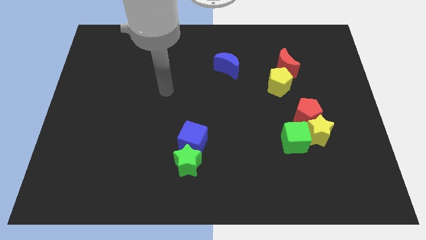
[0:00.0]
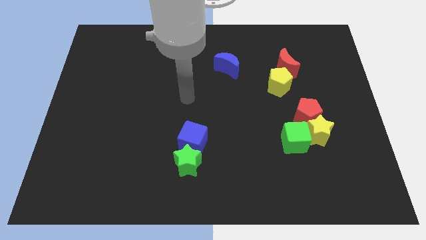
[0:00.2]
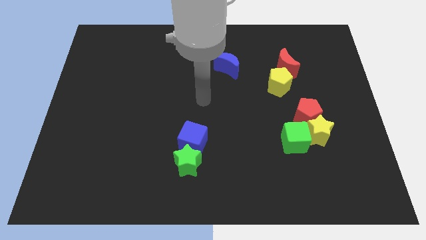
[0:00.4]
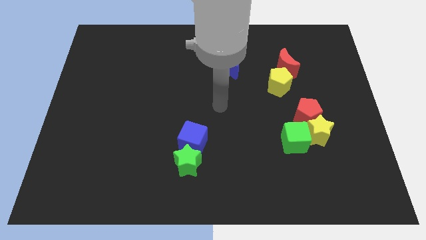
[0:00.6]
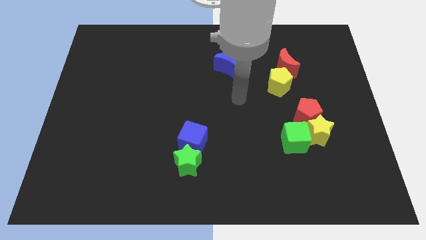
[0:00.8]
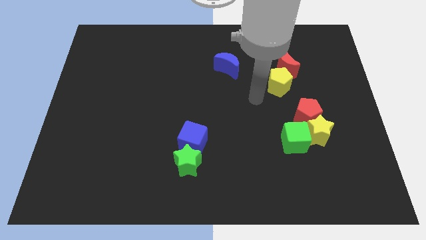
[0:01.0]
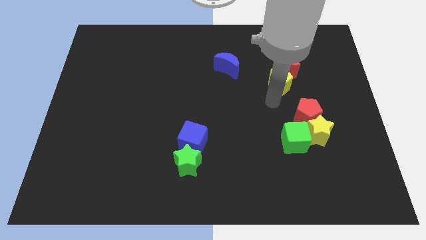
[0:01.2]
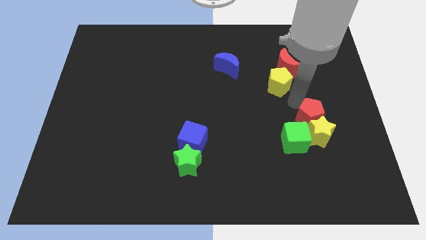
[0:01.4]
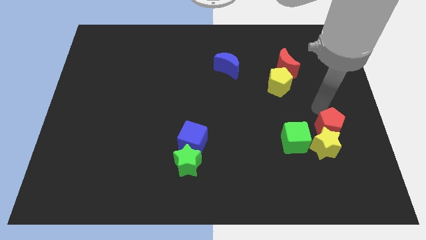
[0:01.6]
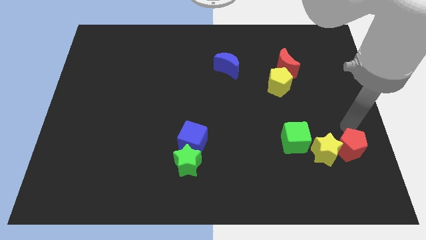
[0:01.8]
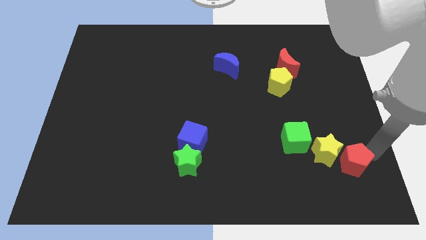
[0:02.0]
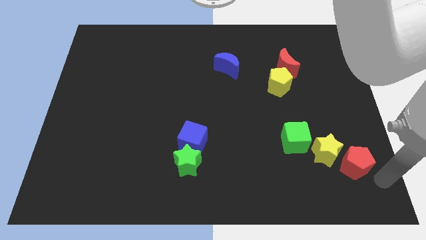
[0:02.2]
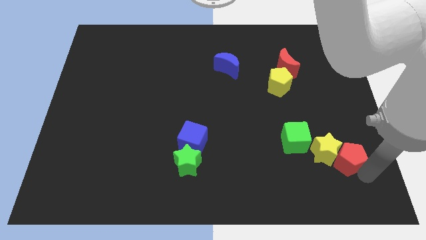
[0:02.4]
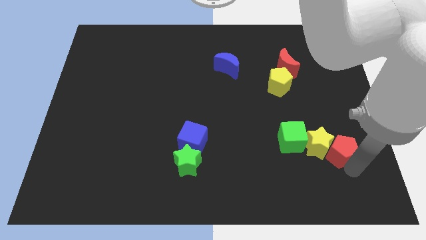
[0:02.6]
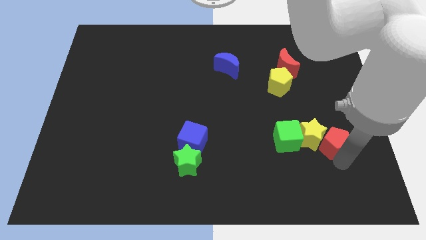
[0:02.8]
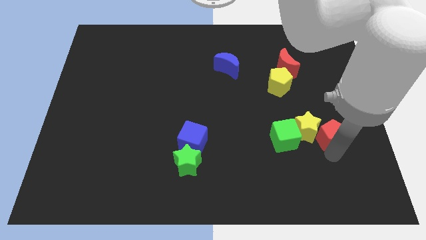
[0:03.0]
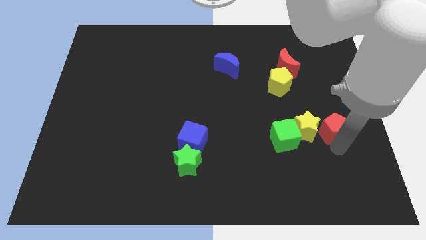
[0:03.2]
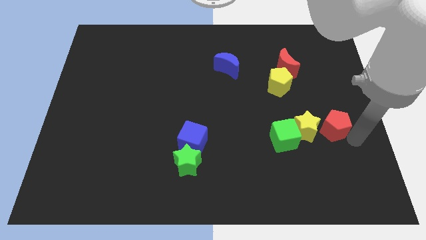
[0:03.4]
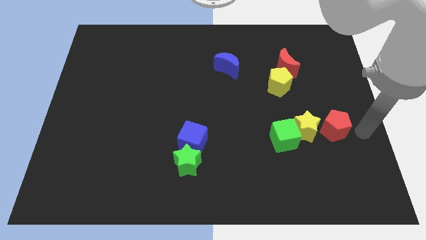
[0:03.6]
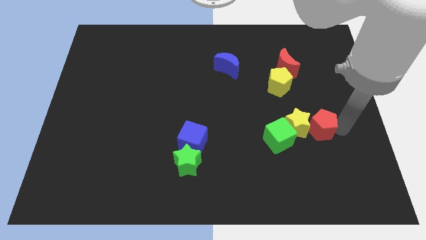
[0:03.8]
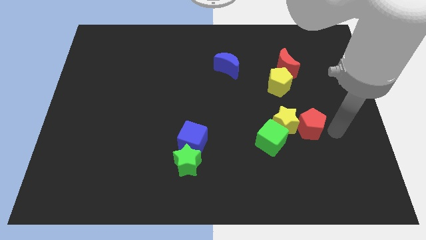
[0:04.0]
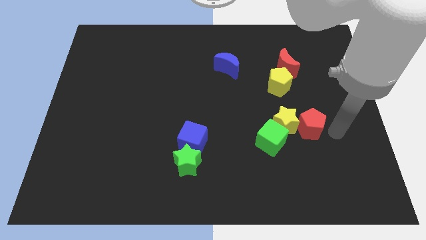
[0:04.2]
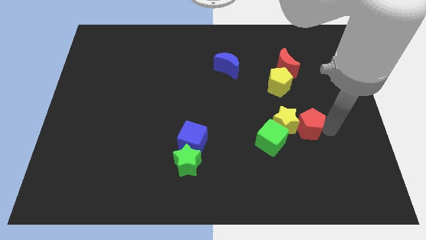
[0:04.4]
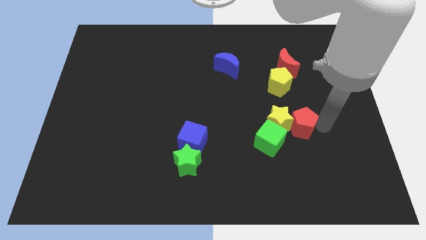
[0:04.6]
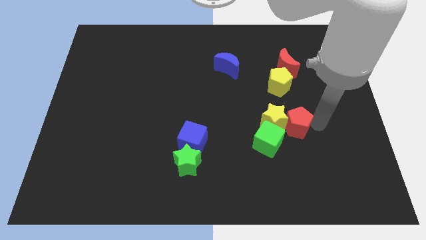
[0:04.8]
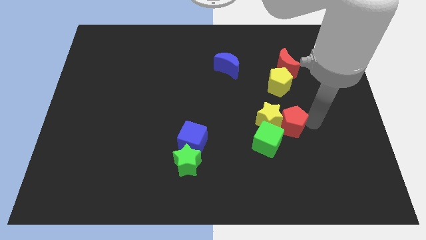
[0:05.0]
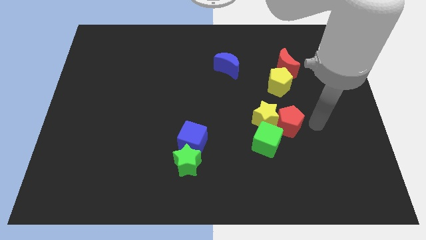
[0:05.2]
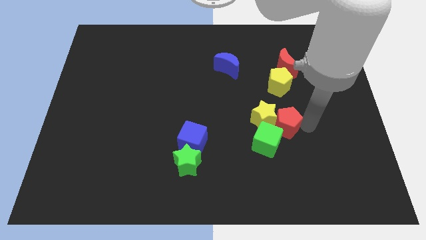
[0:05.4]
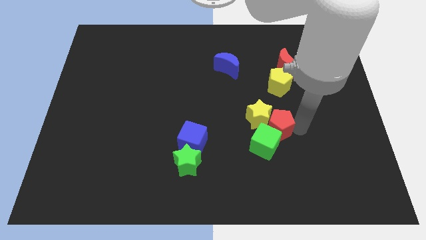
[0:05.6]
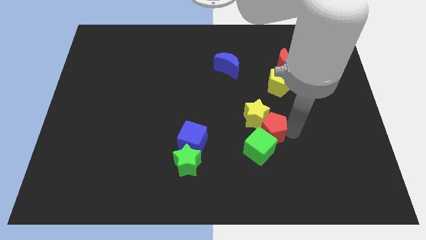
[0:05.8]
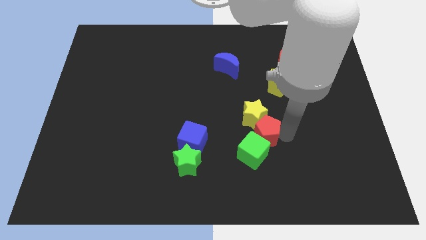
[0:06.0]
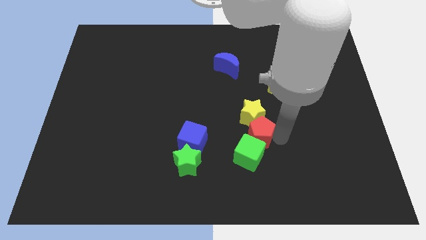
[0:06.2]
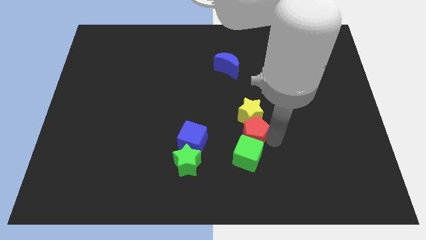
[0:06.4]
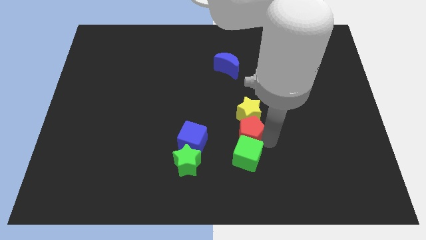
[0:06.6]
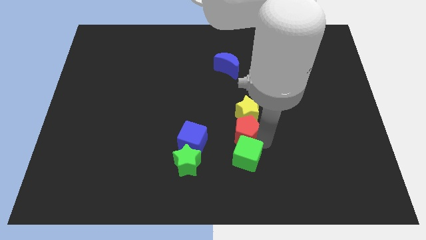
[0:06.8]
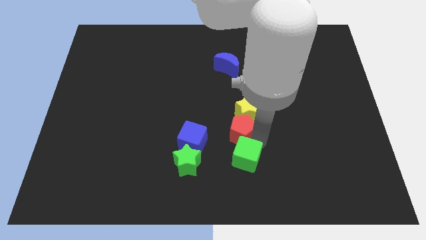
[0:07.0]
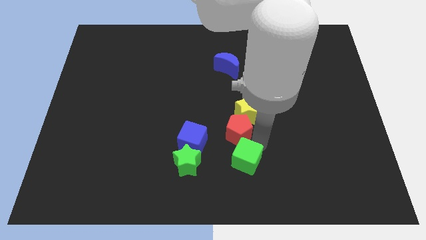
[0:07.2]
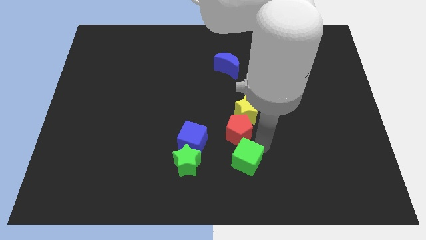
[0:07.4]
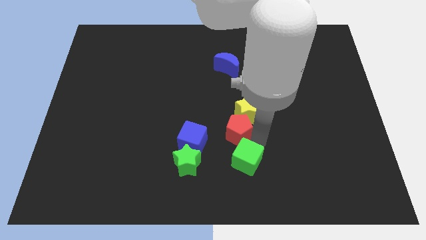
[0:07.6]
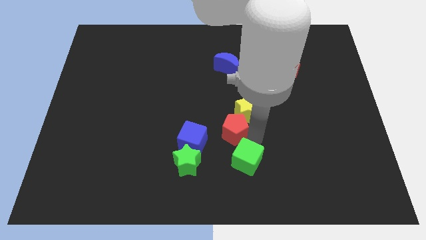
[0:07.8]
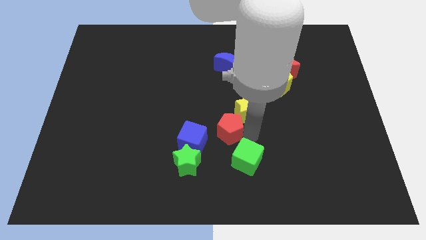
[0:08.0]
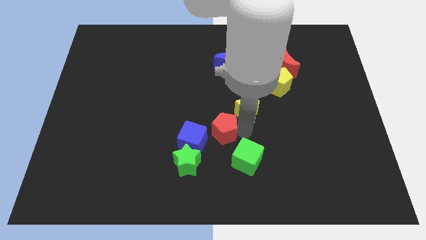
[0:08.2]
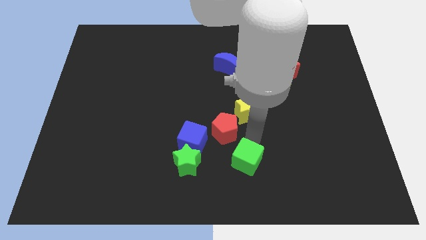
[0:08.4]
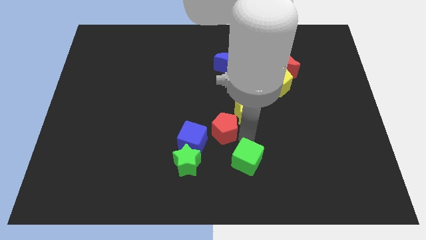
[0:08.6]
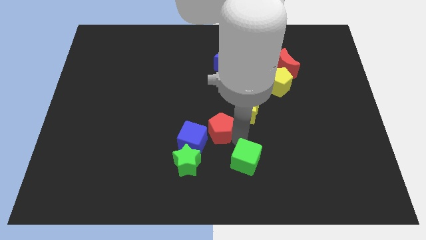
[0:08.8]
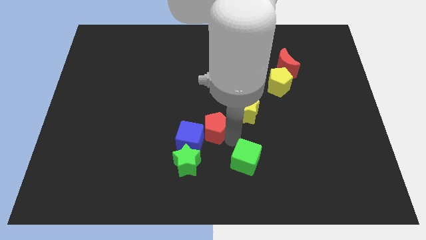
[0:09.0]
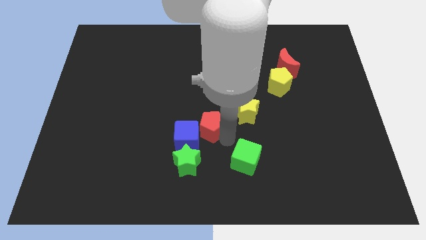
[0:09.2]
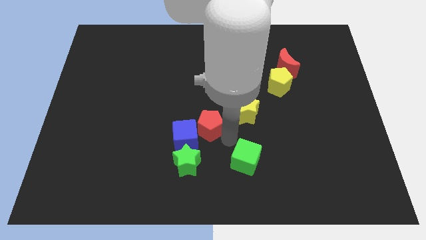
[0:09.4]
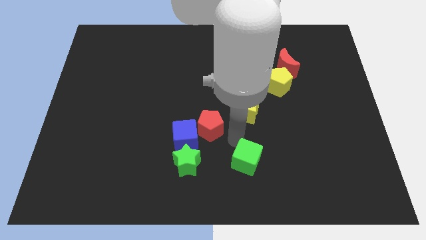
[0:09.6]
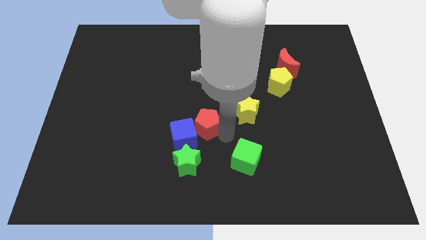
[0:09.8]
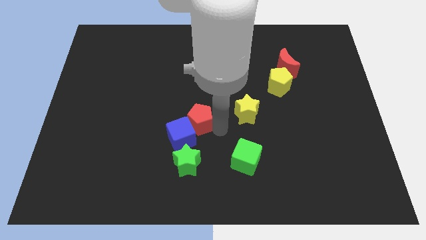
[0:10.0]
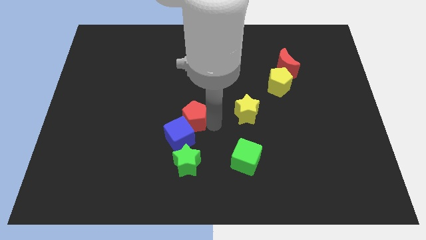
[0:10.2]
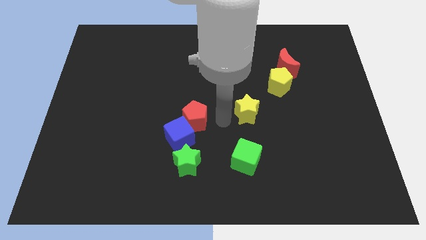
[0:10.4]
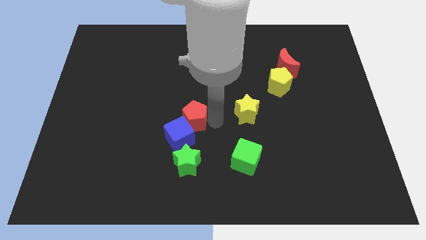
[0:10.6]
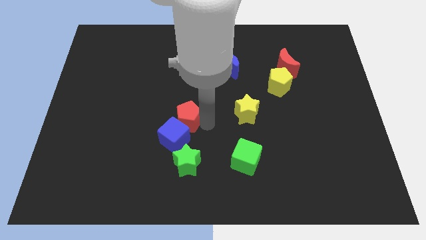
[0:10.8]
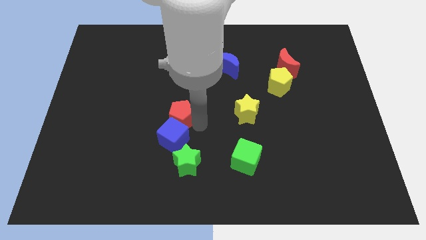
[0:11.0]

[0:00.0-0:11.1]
push the red pentagon to the top left of the blue cube

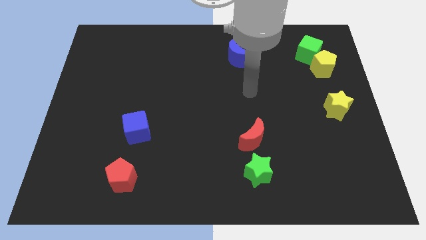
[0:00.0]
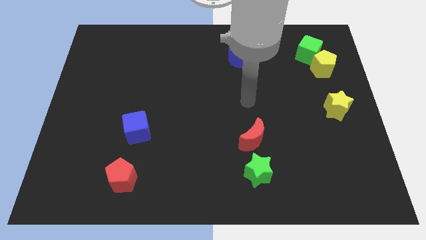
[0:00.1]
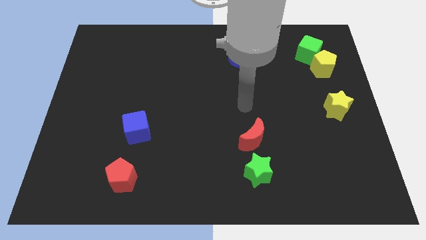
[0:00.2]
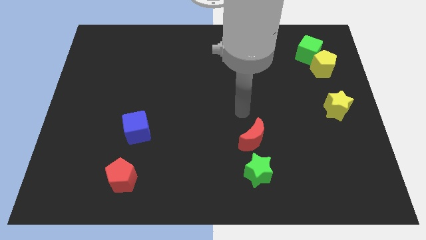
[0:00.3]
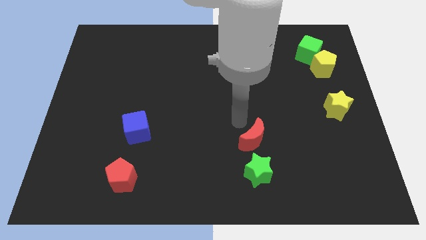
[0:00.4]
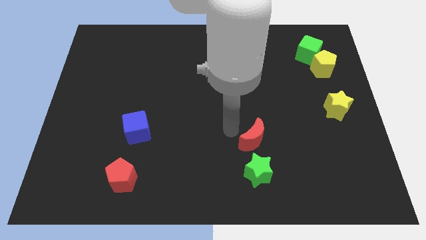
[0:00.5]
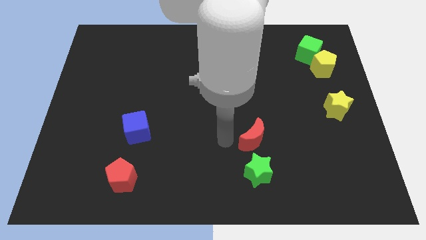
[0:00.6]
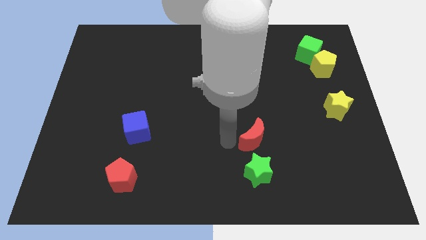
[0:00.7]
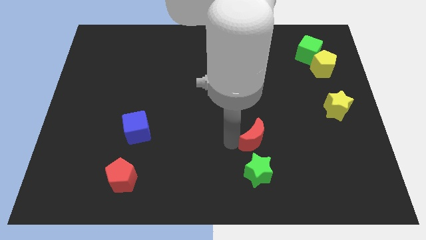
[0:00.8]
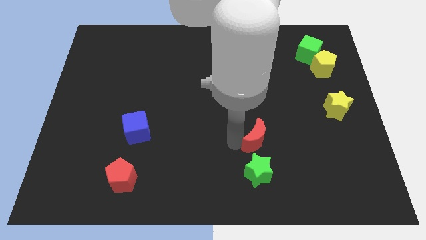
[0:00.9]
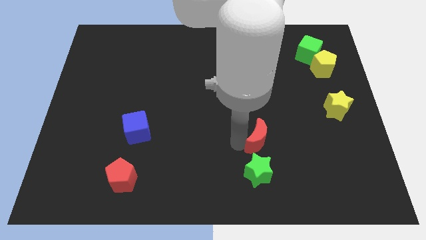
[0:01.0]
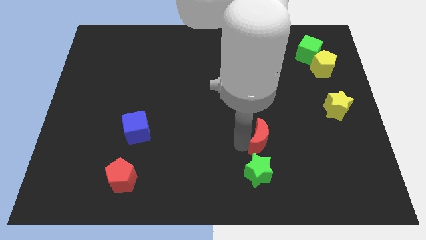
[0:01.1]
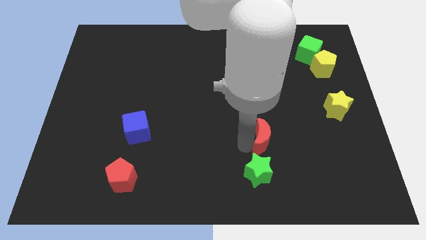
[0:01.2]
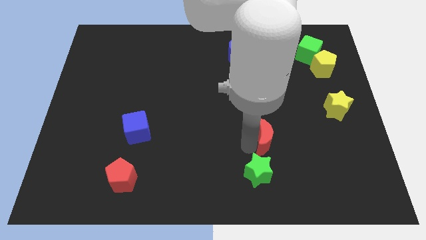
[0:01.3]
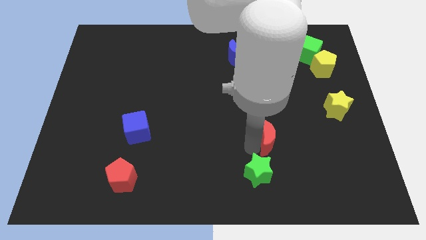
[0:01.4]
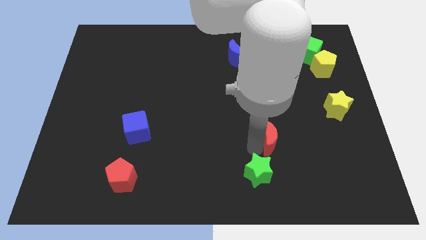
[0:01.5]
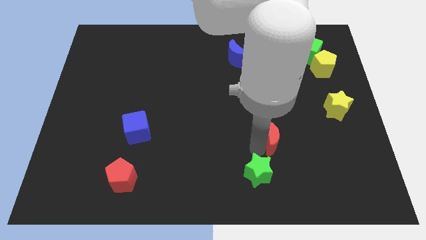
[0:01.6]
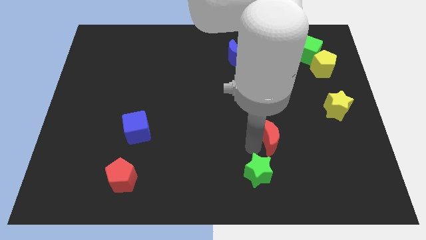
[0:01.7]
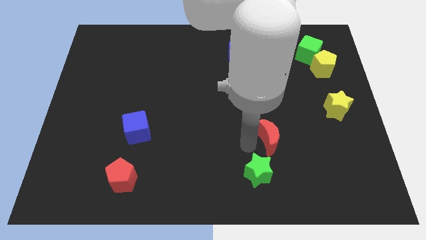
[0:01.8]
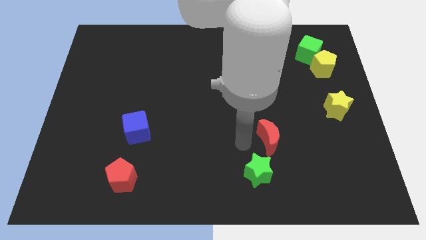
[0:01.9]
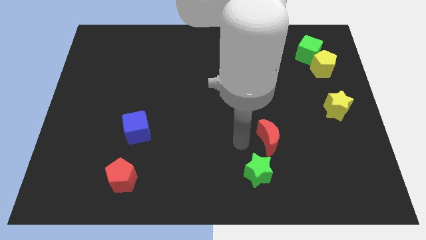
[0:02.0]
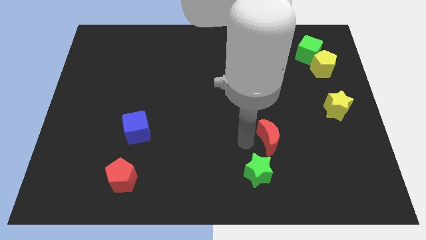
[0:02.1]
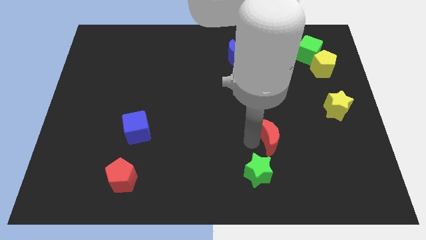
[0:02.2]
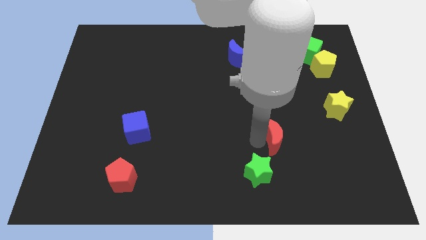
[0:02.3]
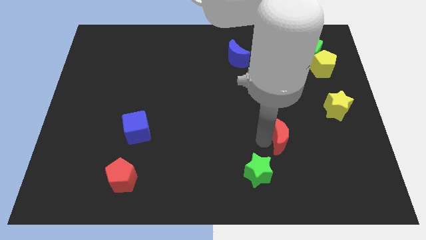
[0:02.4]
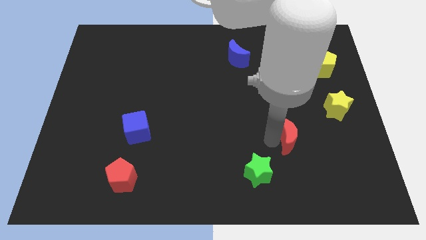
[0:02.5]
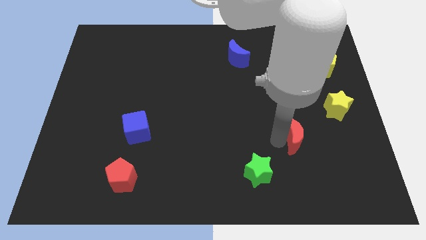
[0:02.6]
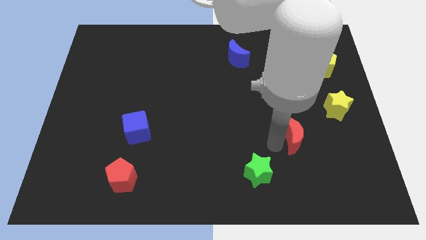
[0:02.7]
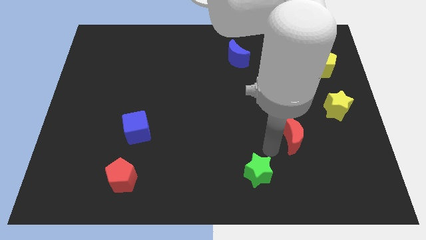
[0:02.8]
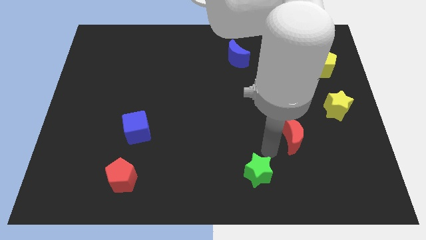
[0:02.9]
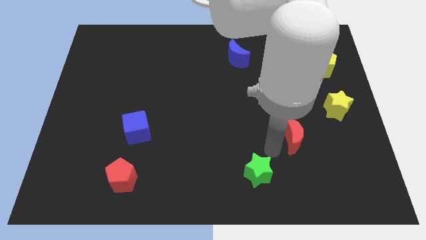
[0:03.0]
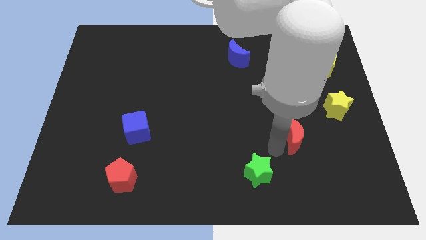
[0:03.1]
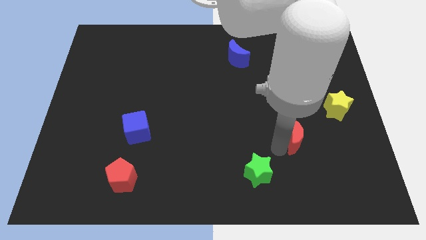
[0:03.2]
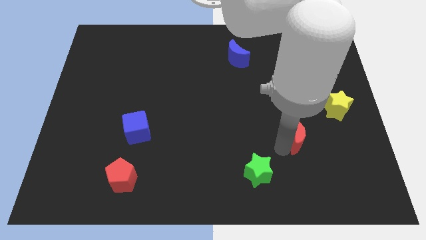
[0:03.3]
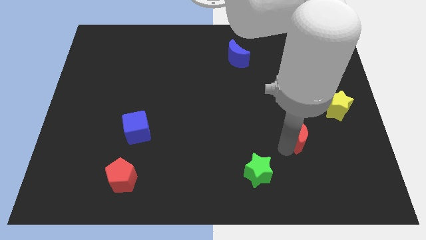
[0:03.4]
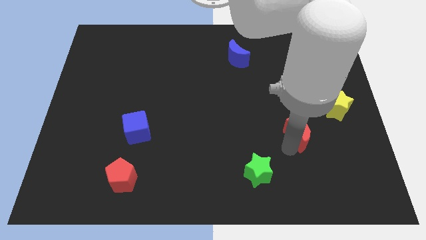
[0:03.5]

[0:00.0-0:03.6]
move the red moon to the bottom left of the yellow star
